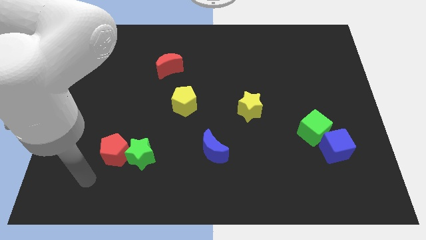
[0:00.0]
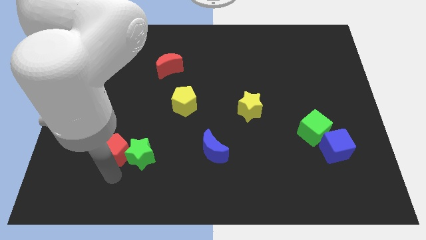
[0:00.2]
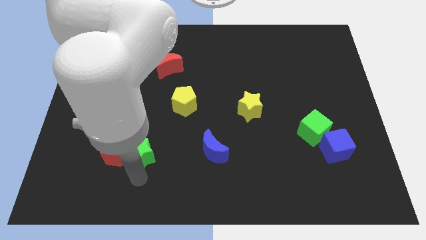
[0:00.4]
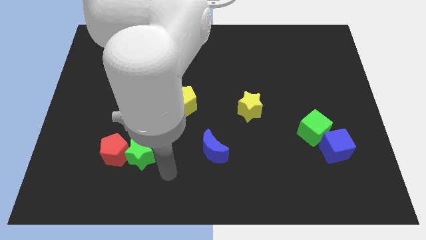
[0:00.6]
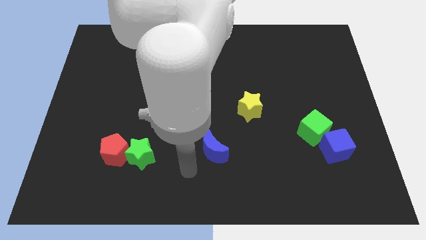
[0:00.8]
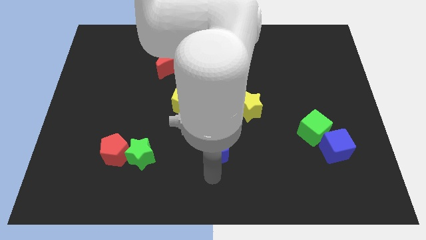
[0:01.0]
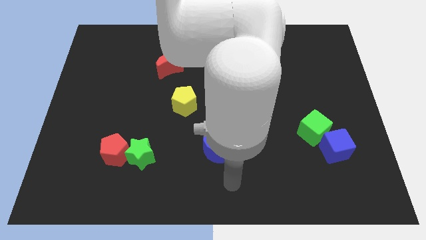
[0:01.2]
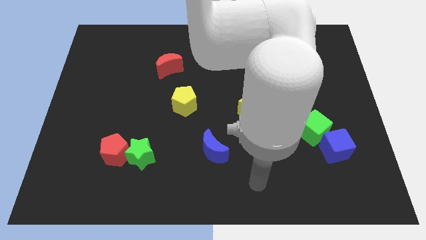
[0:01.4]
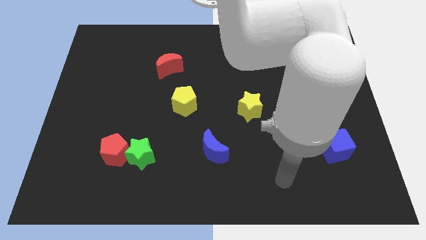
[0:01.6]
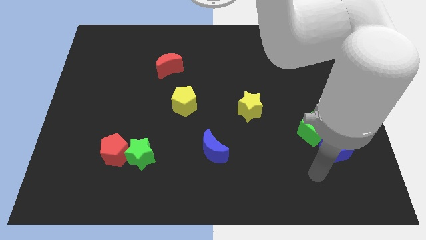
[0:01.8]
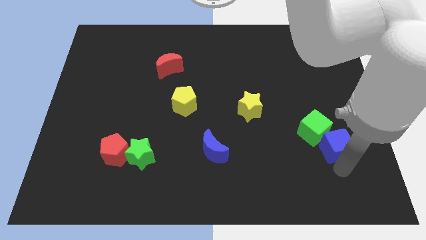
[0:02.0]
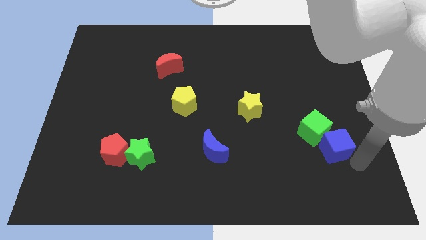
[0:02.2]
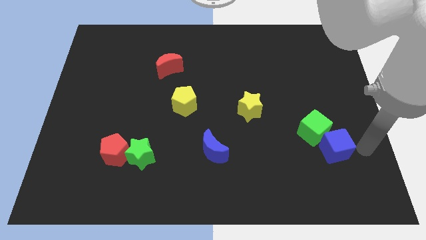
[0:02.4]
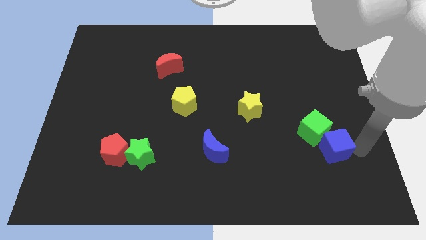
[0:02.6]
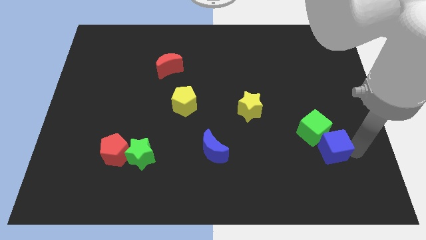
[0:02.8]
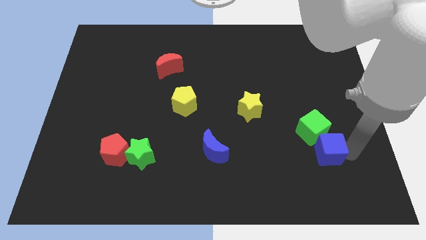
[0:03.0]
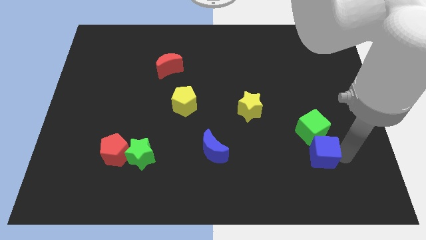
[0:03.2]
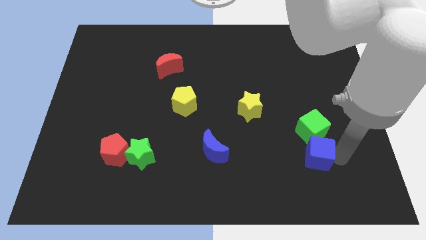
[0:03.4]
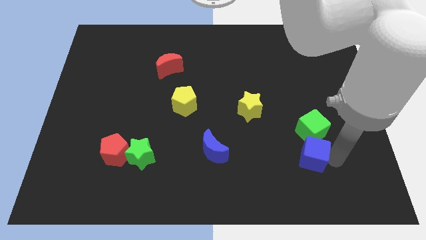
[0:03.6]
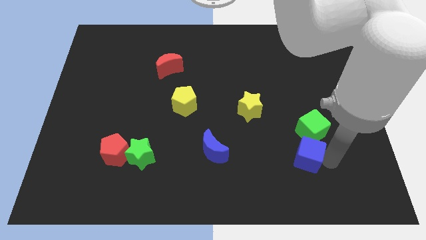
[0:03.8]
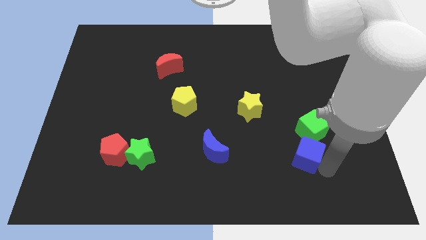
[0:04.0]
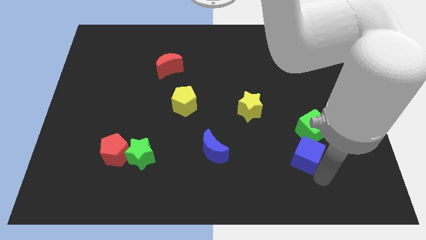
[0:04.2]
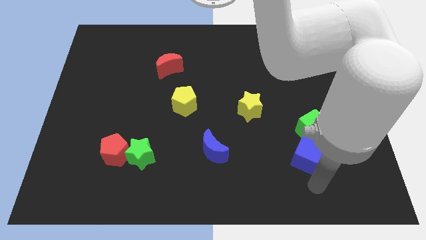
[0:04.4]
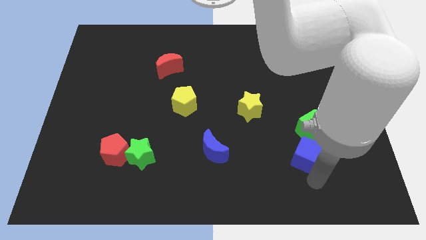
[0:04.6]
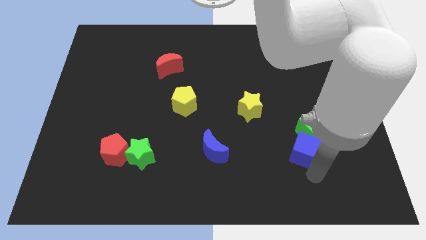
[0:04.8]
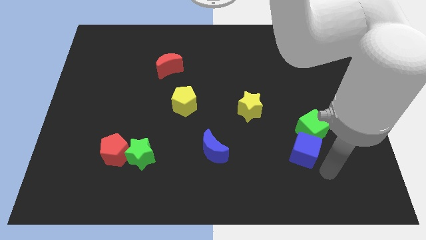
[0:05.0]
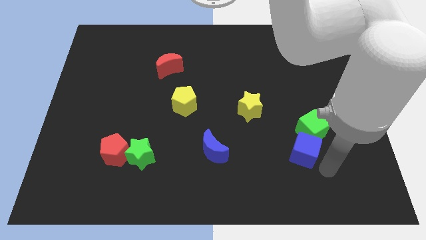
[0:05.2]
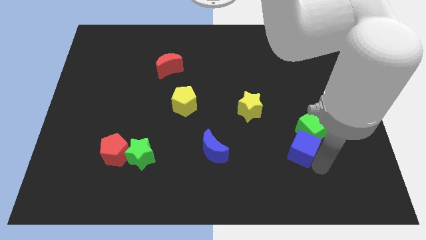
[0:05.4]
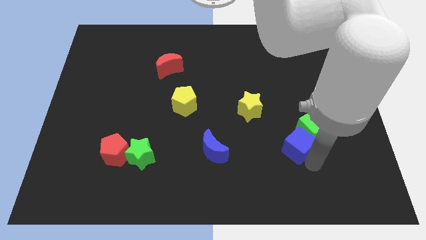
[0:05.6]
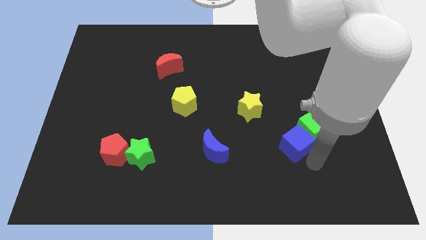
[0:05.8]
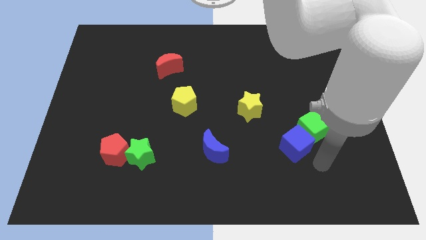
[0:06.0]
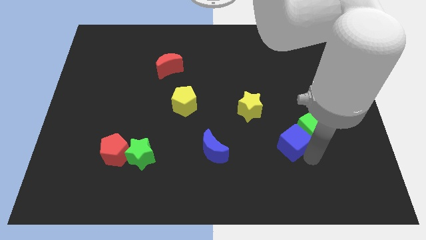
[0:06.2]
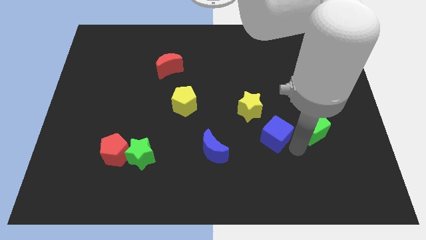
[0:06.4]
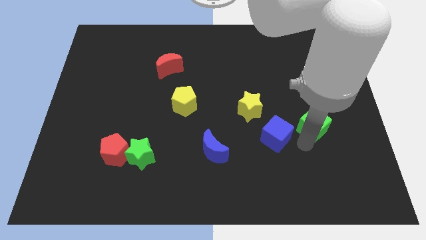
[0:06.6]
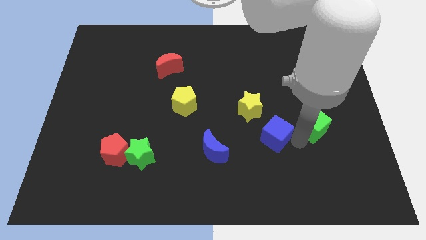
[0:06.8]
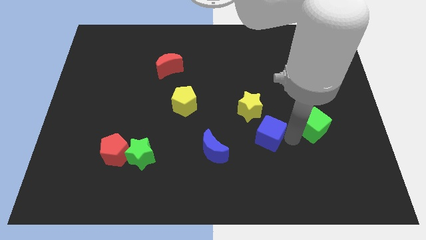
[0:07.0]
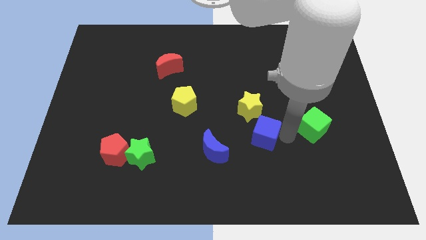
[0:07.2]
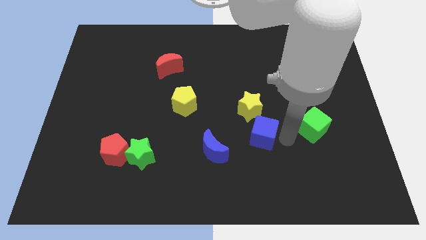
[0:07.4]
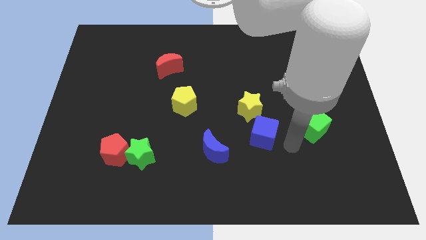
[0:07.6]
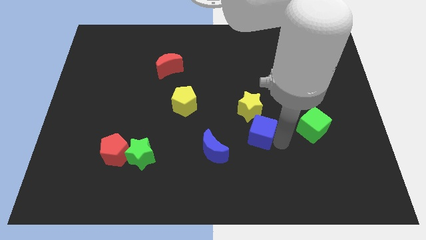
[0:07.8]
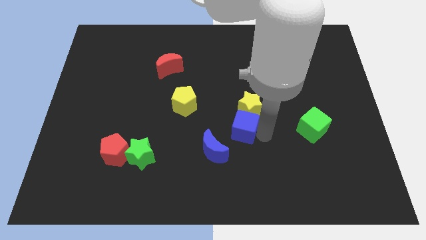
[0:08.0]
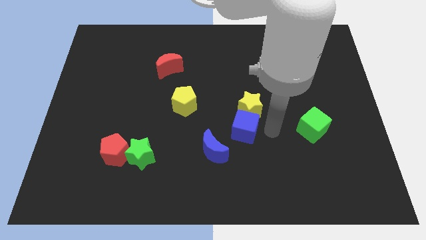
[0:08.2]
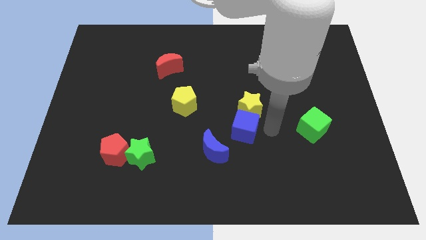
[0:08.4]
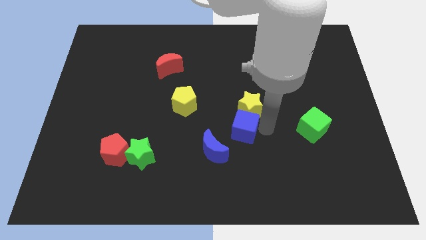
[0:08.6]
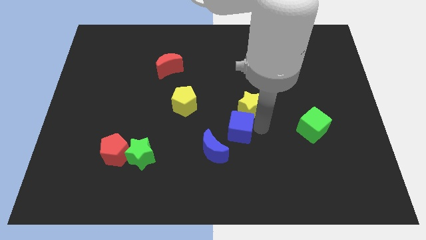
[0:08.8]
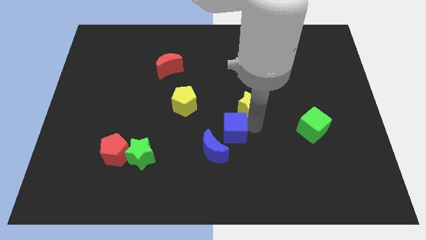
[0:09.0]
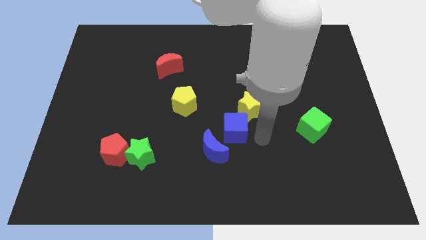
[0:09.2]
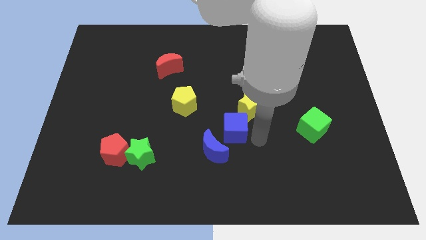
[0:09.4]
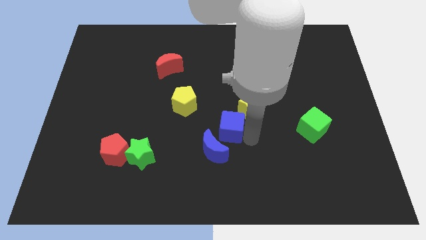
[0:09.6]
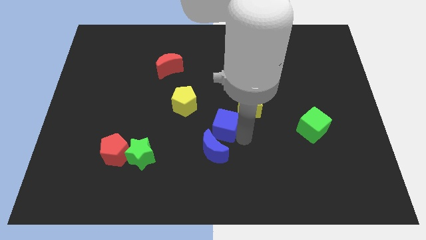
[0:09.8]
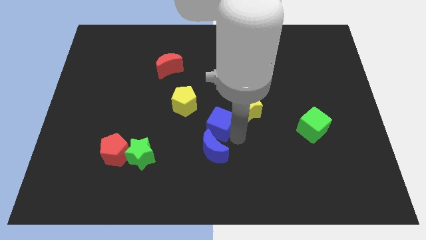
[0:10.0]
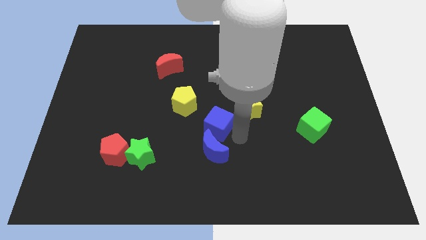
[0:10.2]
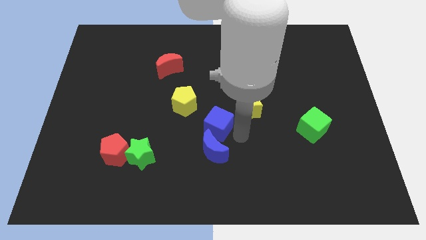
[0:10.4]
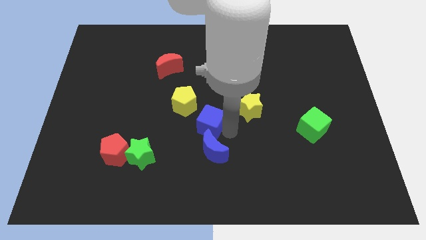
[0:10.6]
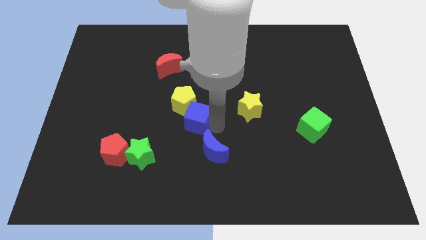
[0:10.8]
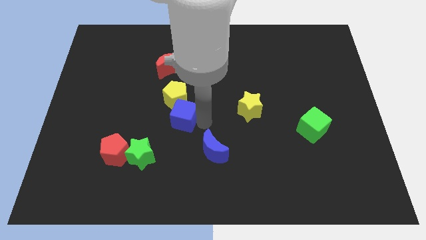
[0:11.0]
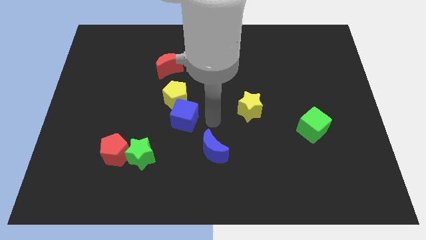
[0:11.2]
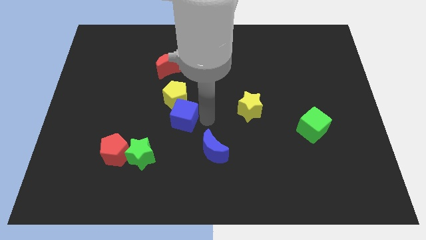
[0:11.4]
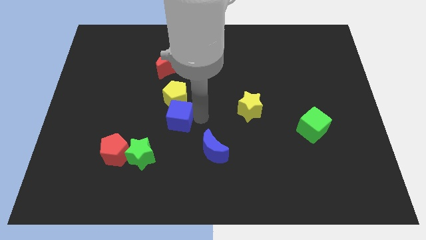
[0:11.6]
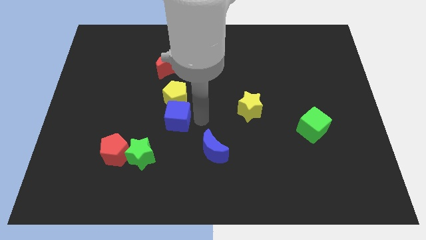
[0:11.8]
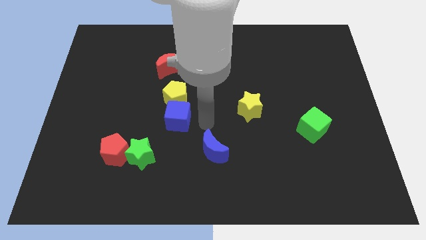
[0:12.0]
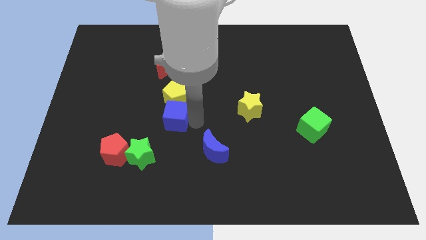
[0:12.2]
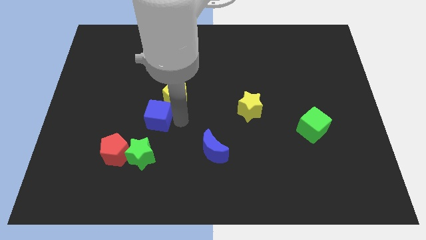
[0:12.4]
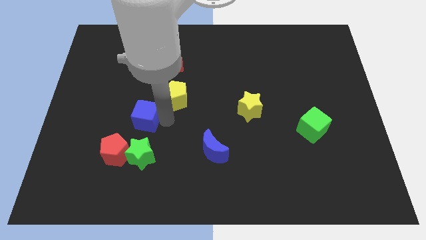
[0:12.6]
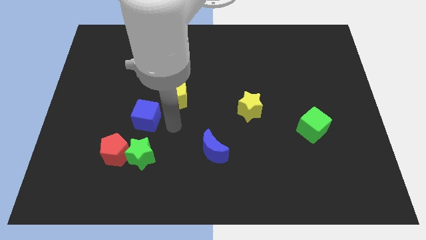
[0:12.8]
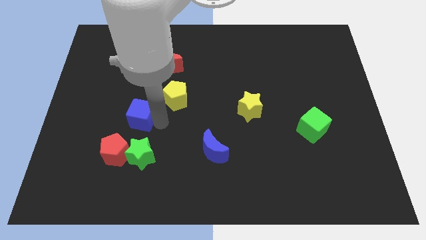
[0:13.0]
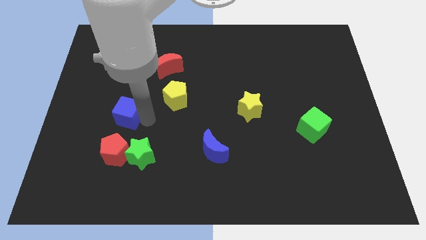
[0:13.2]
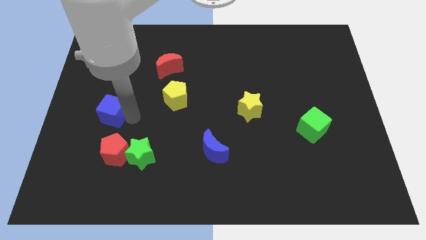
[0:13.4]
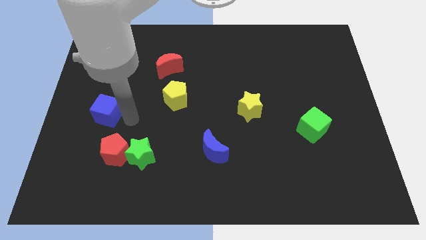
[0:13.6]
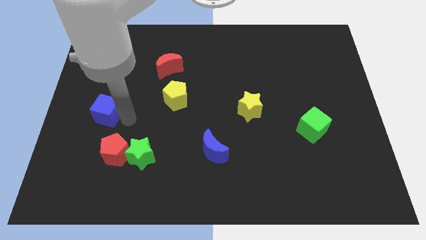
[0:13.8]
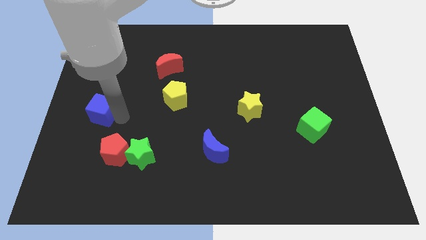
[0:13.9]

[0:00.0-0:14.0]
put the blue cube to the left side
